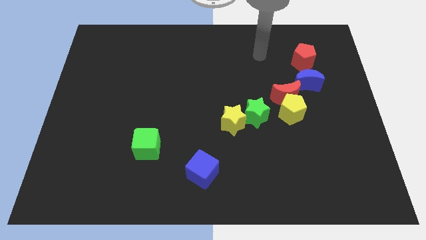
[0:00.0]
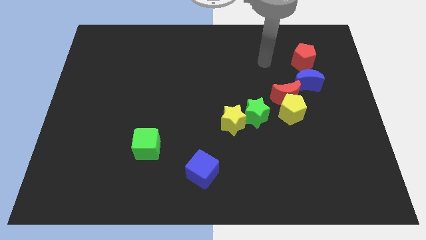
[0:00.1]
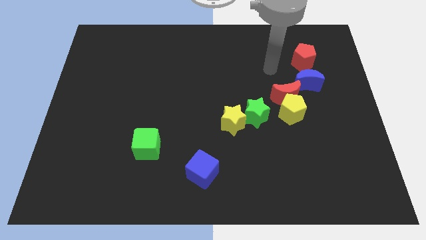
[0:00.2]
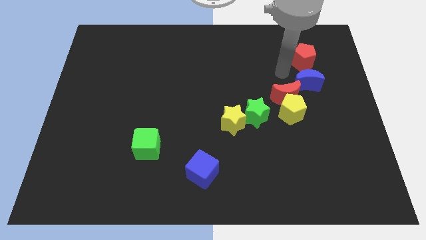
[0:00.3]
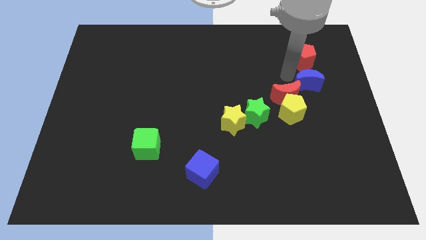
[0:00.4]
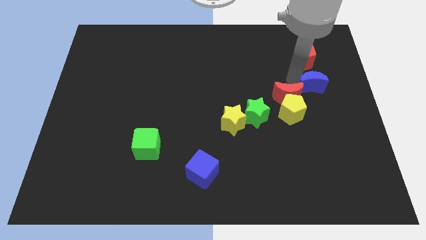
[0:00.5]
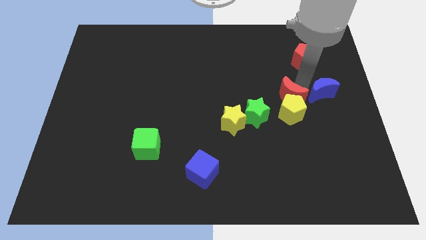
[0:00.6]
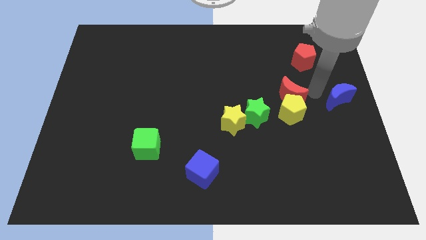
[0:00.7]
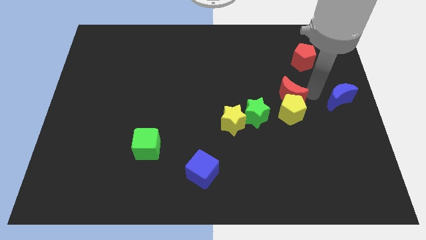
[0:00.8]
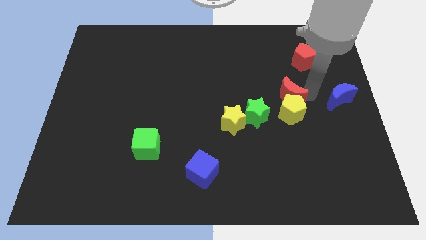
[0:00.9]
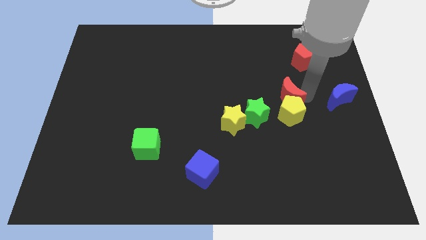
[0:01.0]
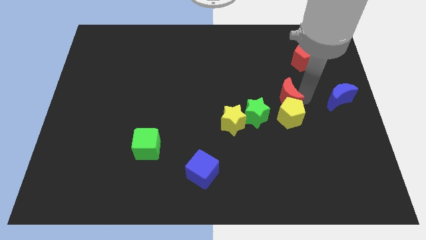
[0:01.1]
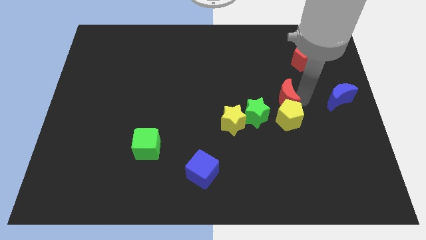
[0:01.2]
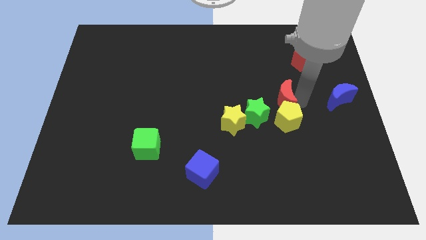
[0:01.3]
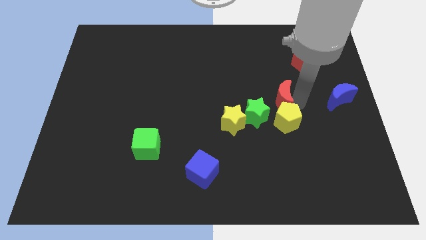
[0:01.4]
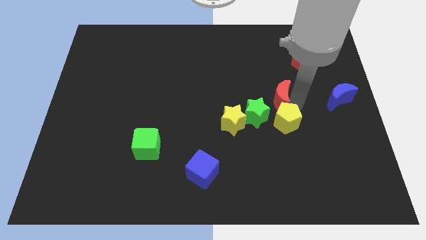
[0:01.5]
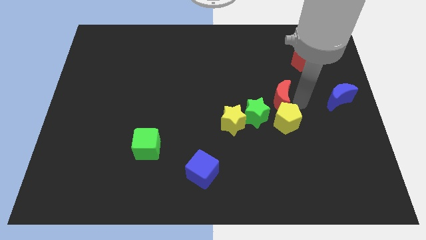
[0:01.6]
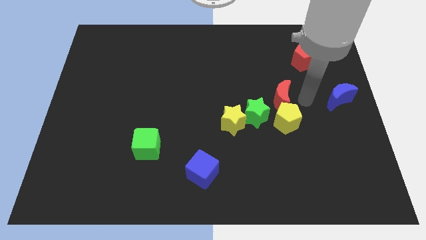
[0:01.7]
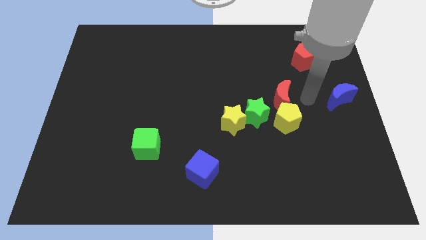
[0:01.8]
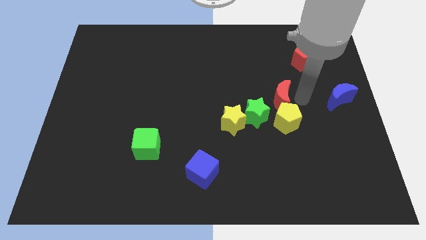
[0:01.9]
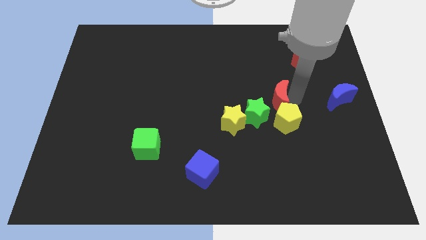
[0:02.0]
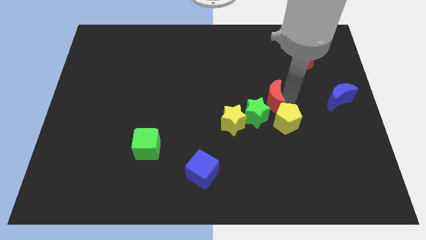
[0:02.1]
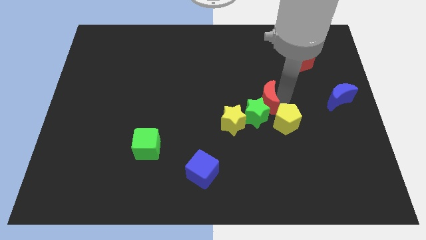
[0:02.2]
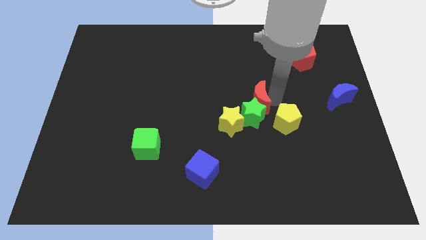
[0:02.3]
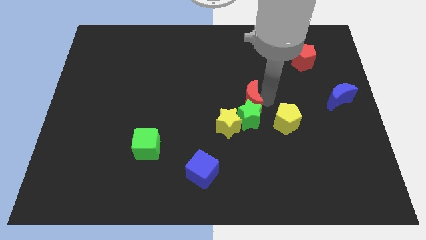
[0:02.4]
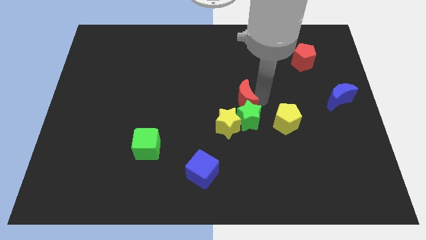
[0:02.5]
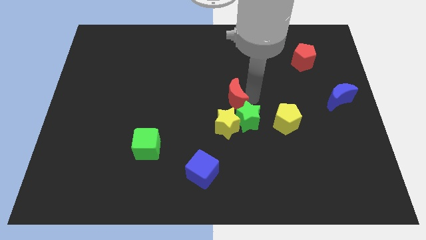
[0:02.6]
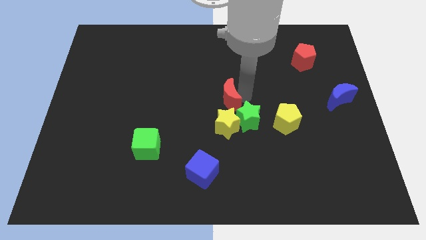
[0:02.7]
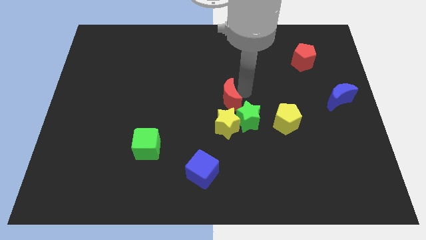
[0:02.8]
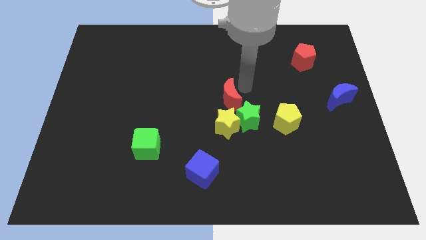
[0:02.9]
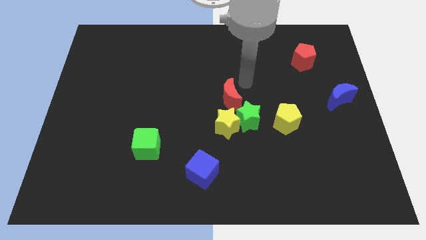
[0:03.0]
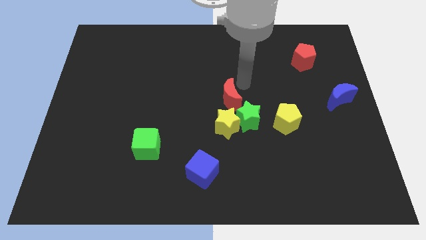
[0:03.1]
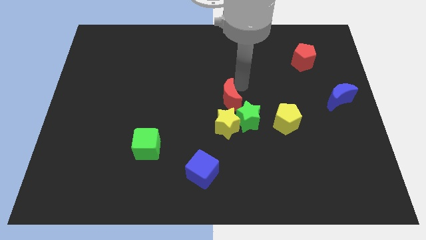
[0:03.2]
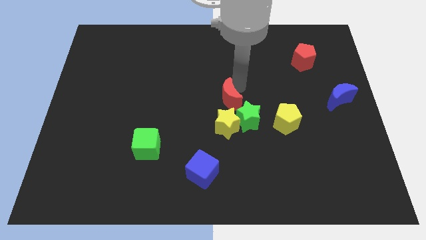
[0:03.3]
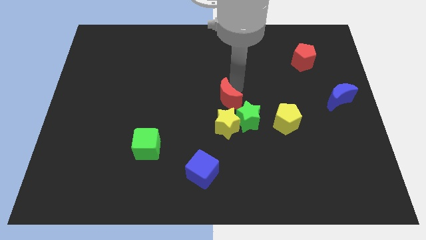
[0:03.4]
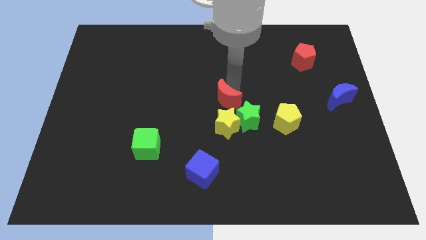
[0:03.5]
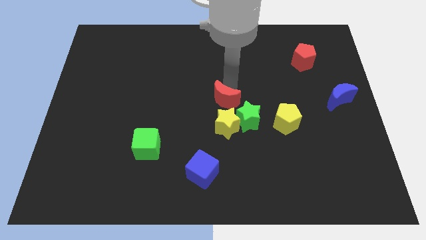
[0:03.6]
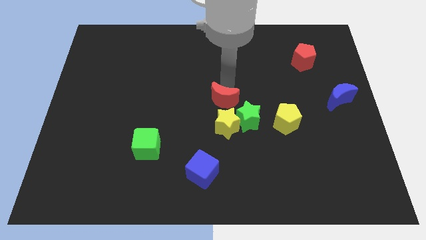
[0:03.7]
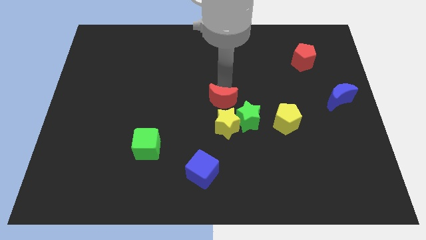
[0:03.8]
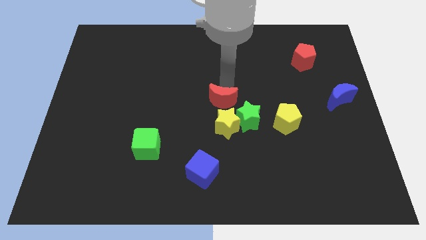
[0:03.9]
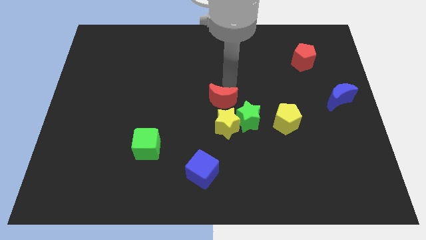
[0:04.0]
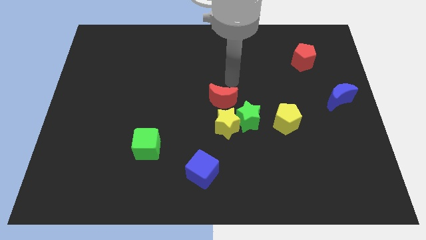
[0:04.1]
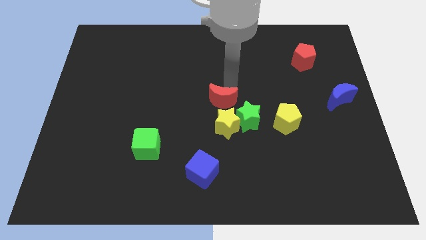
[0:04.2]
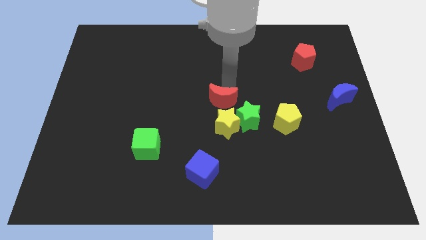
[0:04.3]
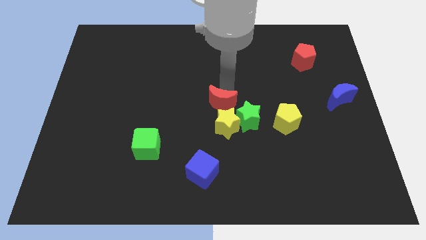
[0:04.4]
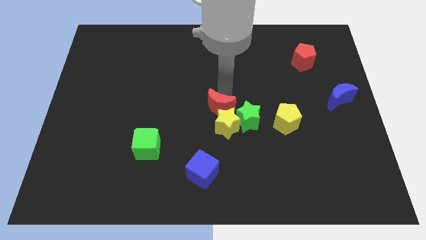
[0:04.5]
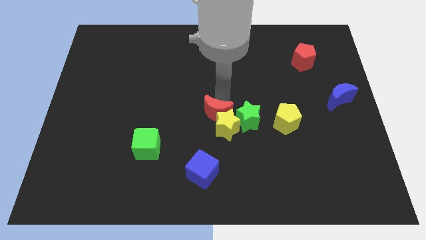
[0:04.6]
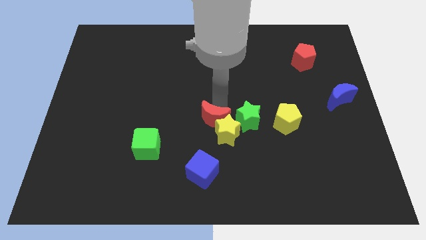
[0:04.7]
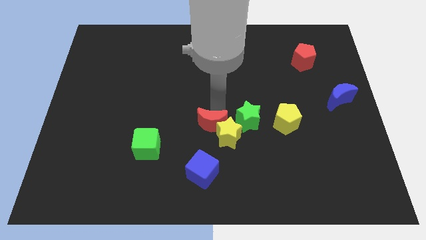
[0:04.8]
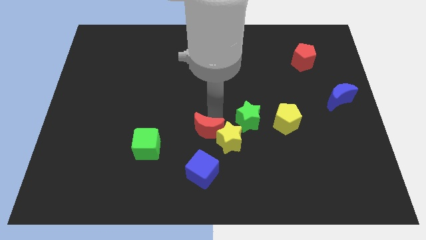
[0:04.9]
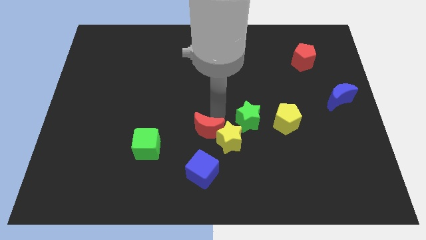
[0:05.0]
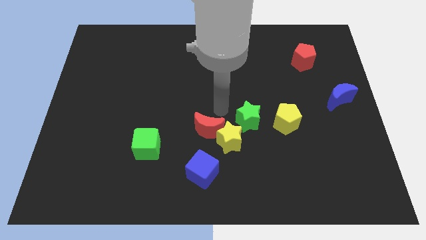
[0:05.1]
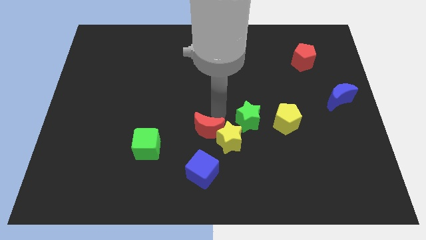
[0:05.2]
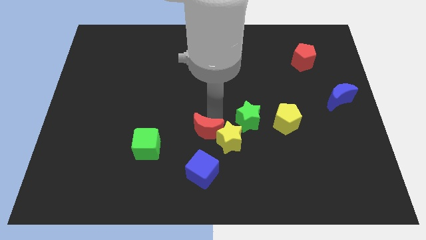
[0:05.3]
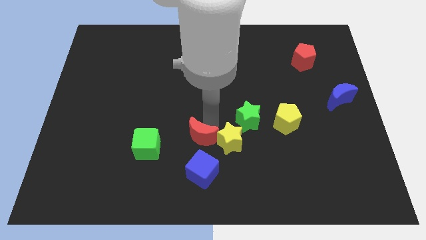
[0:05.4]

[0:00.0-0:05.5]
slide the red moon downwards and then to the left

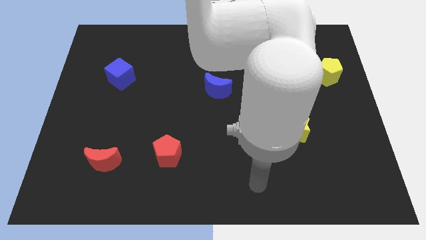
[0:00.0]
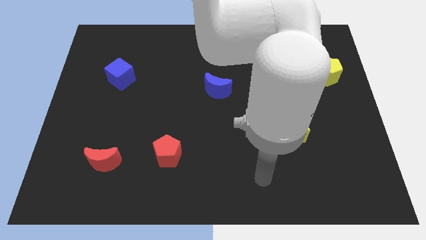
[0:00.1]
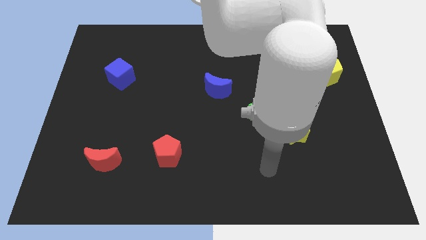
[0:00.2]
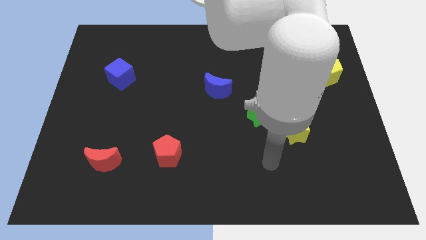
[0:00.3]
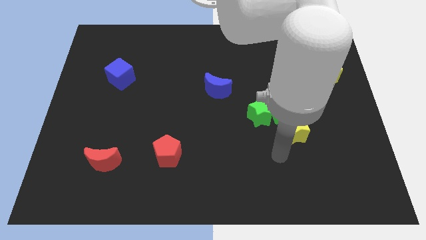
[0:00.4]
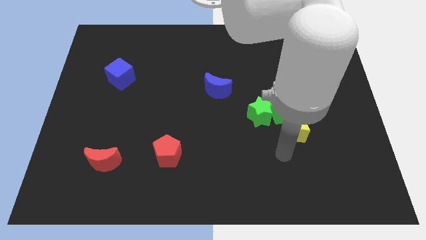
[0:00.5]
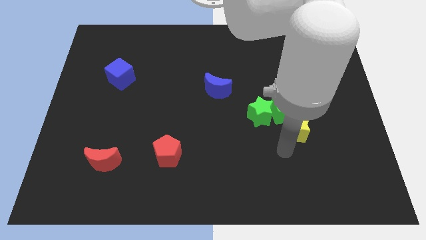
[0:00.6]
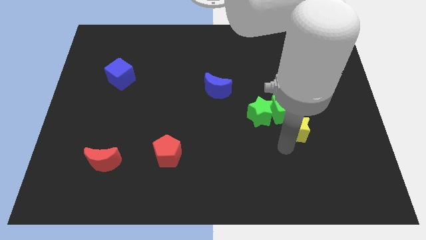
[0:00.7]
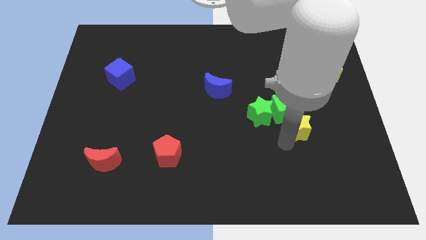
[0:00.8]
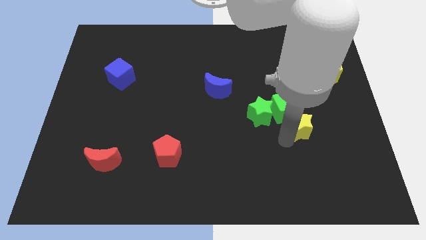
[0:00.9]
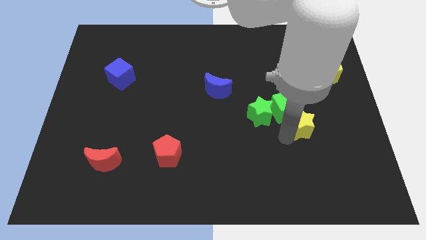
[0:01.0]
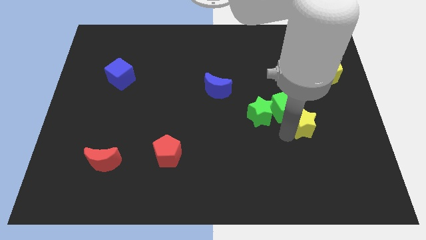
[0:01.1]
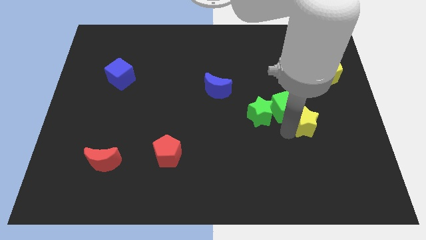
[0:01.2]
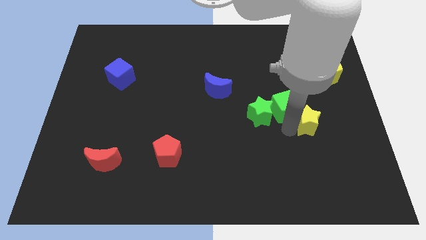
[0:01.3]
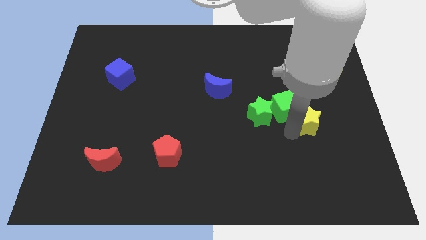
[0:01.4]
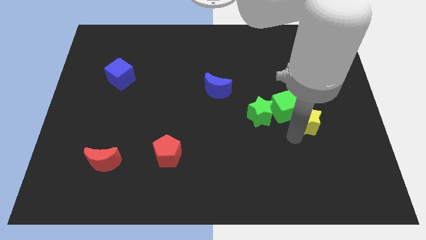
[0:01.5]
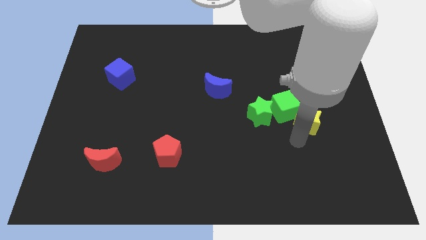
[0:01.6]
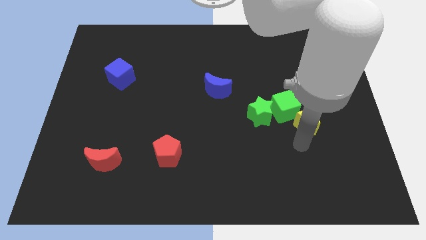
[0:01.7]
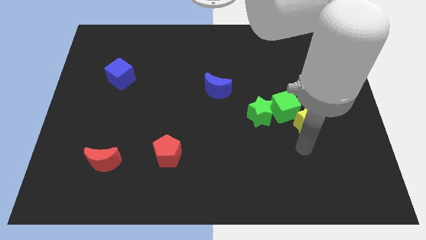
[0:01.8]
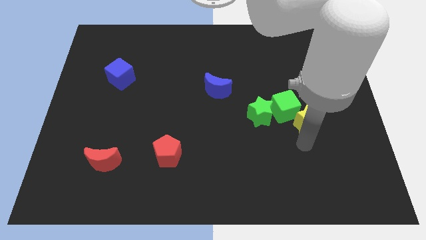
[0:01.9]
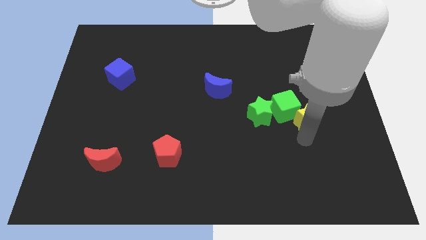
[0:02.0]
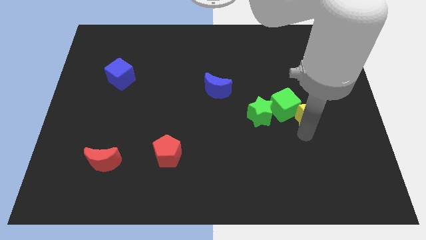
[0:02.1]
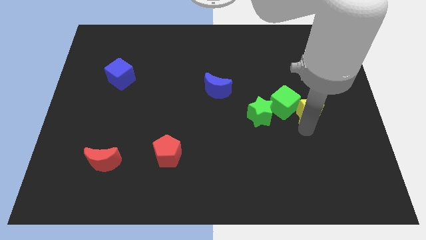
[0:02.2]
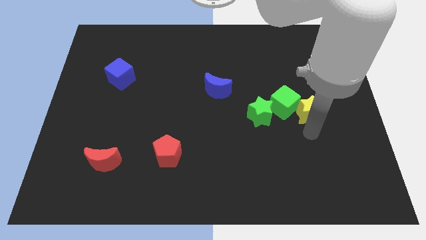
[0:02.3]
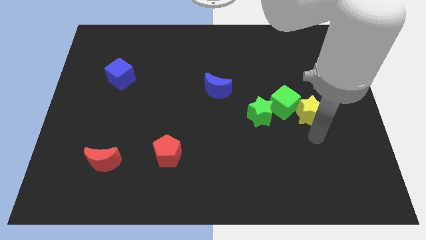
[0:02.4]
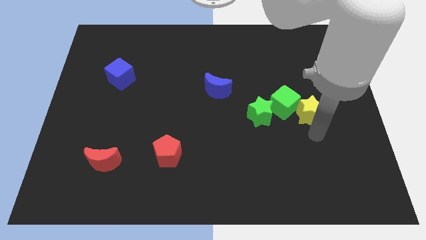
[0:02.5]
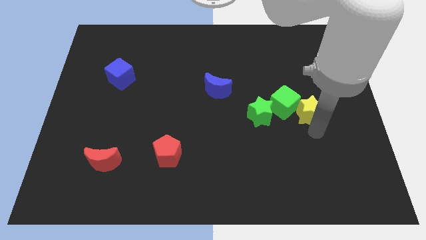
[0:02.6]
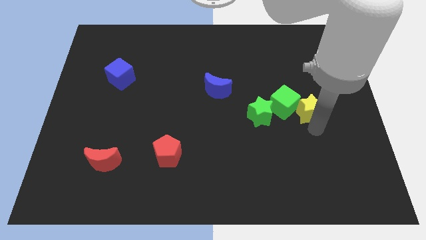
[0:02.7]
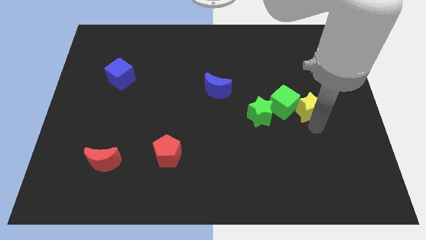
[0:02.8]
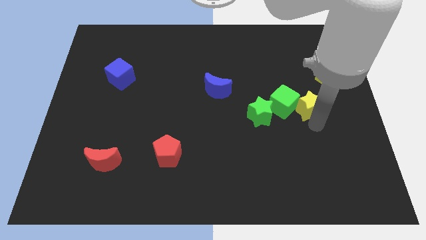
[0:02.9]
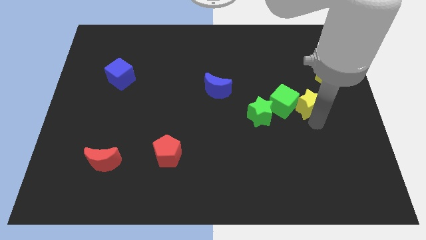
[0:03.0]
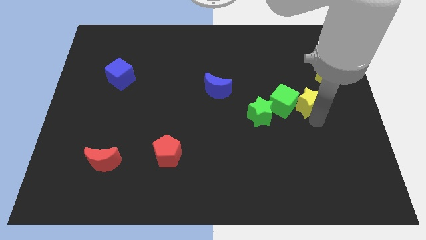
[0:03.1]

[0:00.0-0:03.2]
slightly slide the yellow star up
